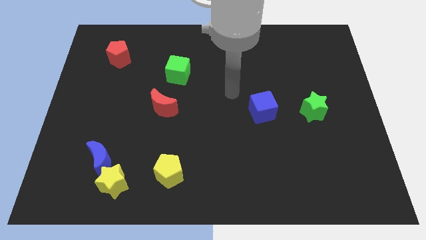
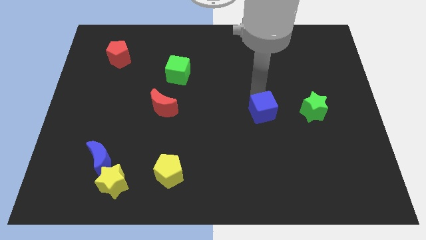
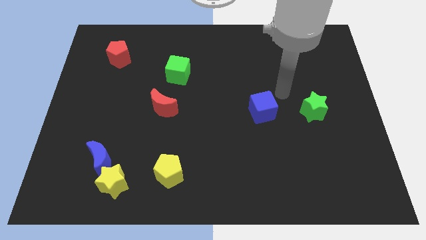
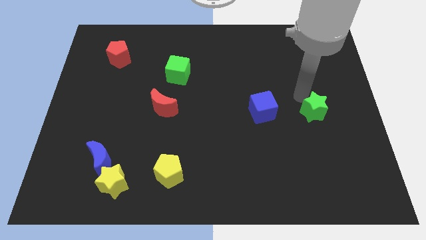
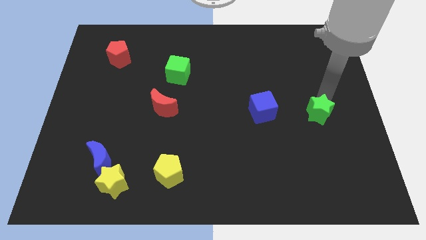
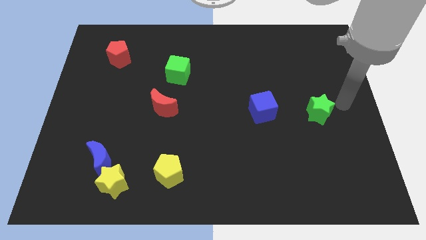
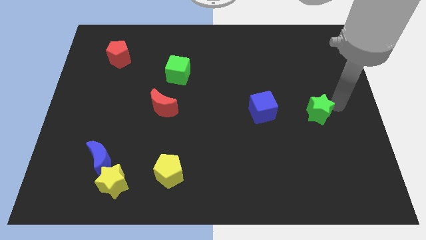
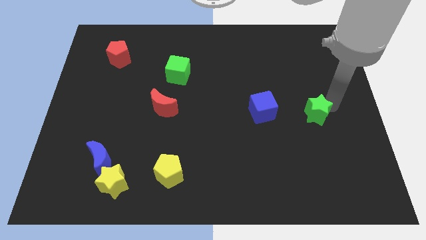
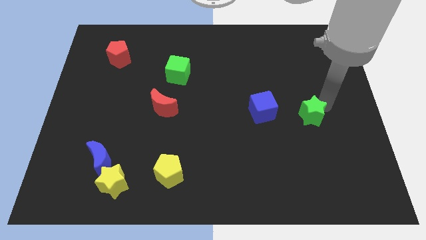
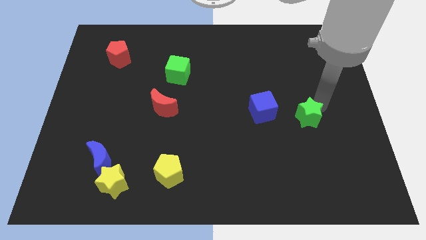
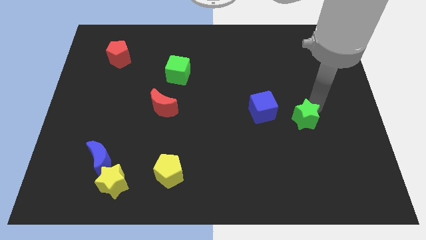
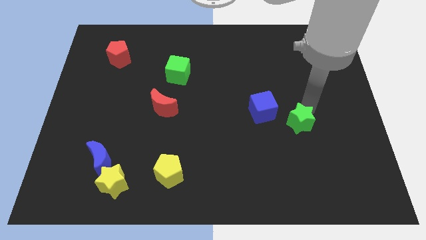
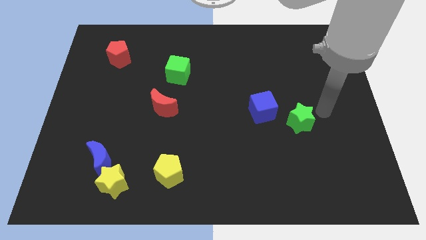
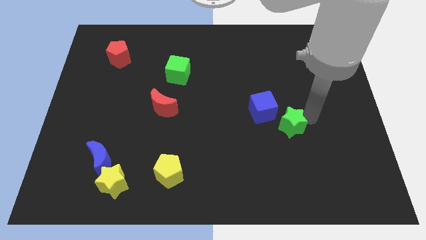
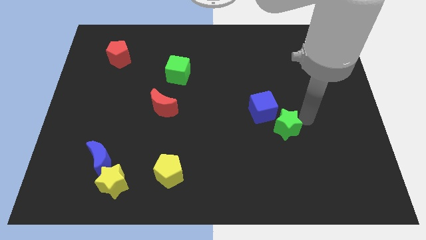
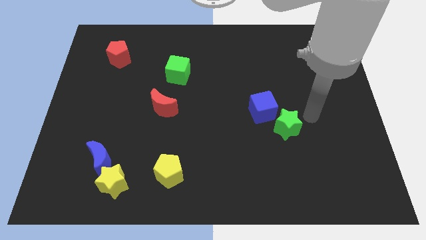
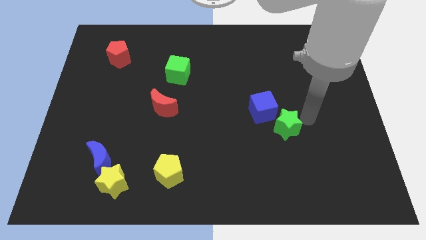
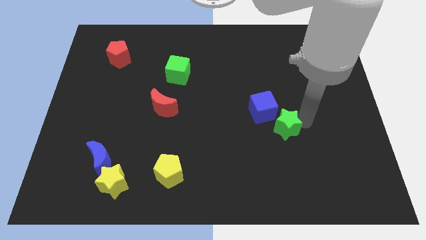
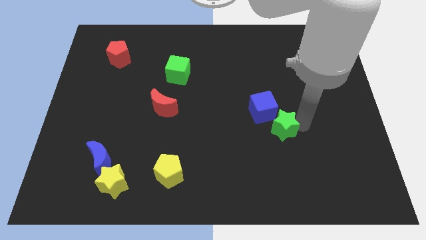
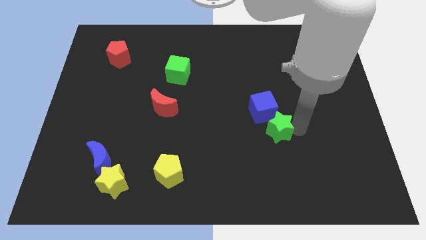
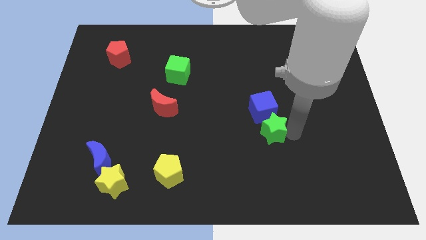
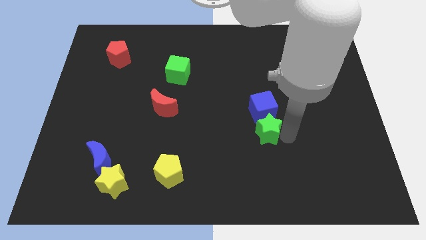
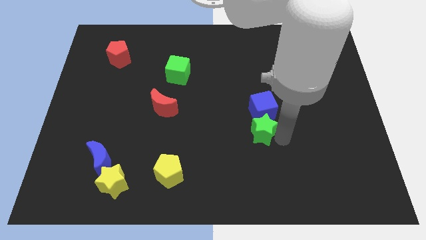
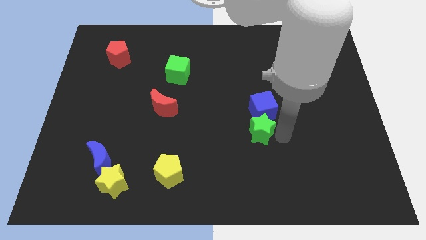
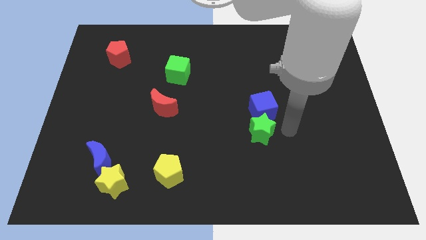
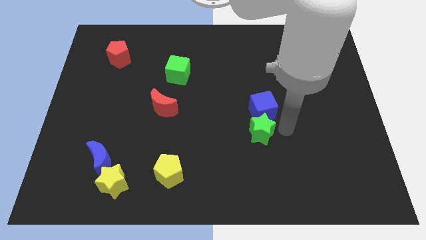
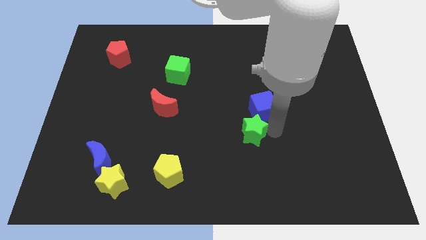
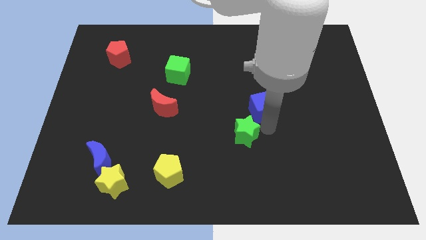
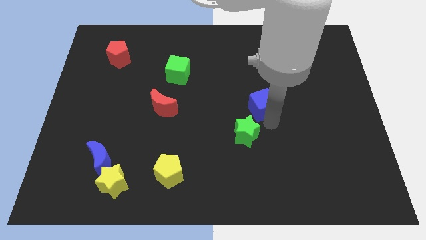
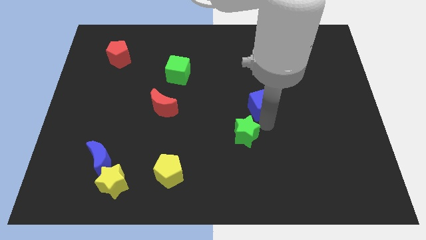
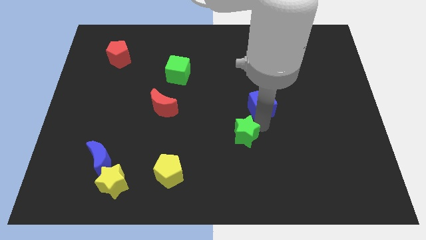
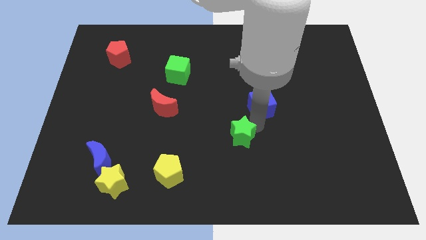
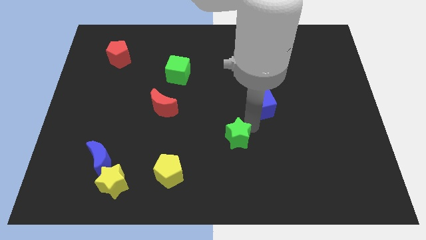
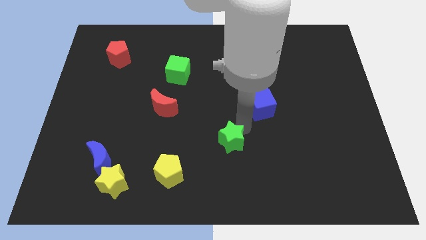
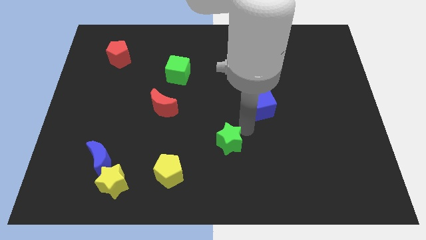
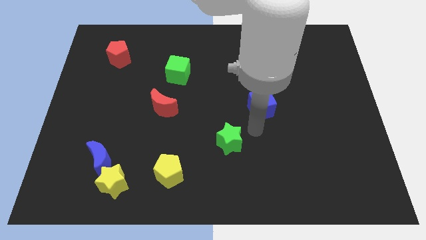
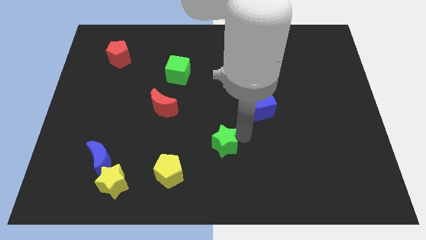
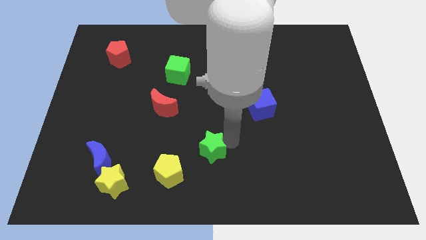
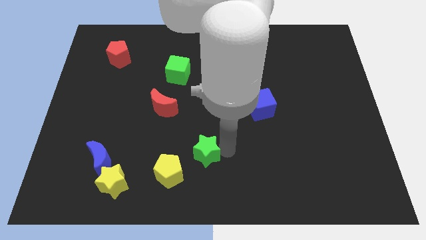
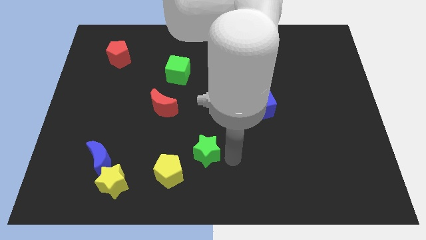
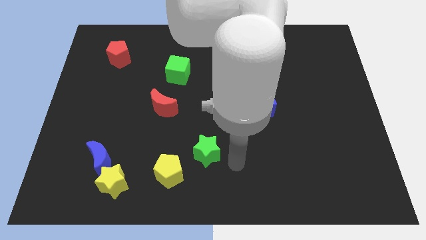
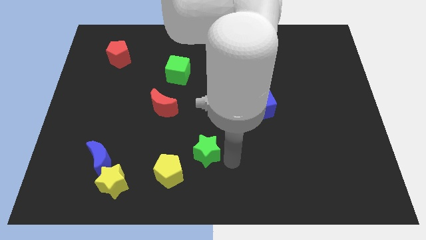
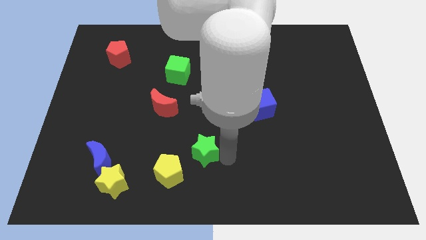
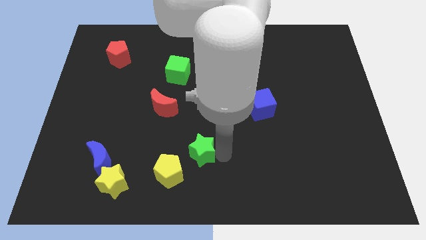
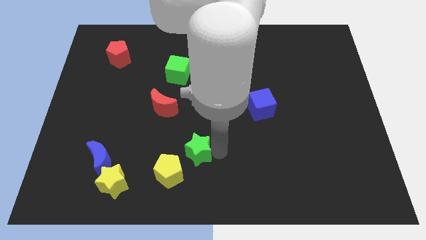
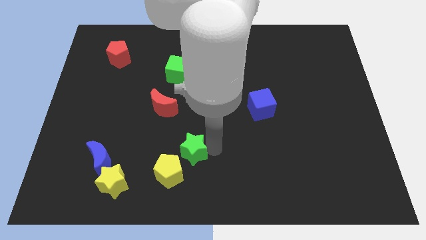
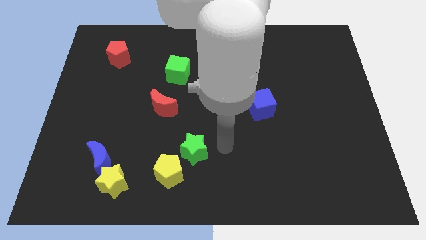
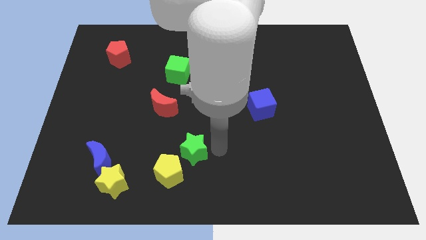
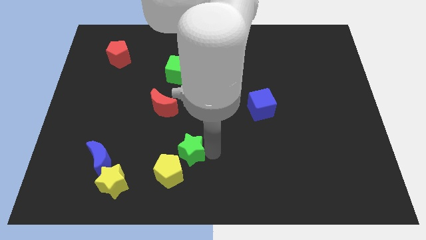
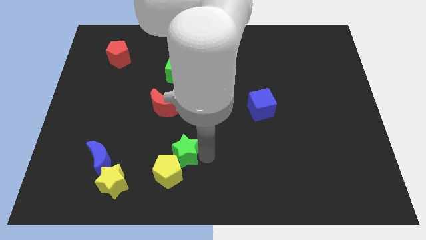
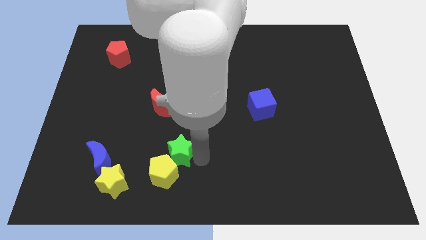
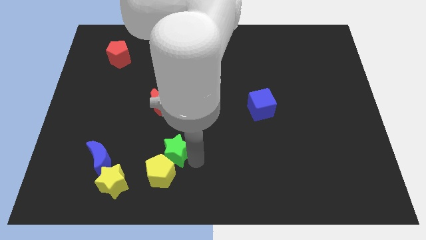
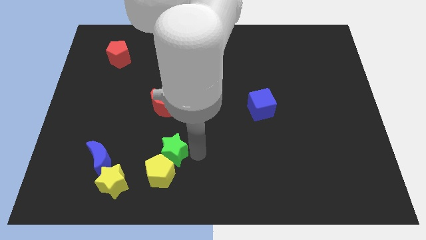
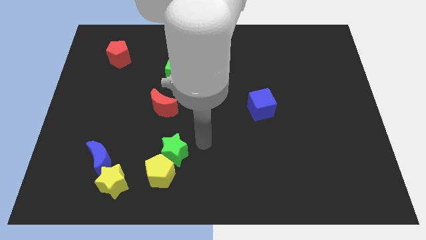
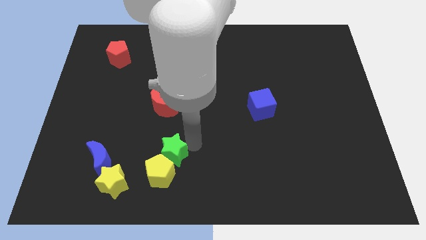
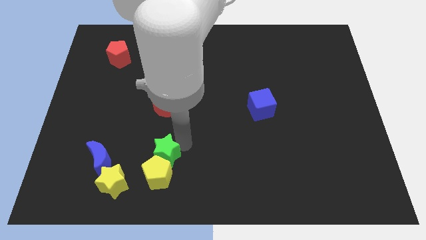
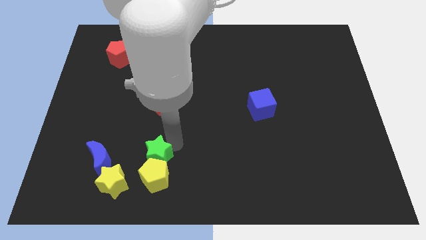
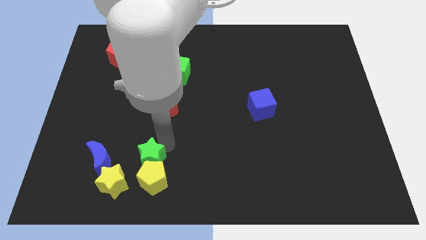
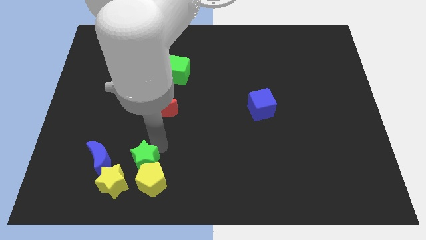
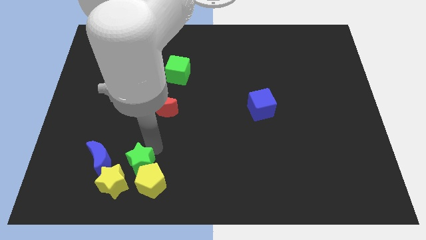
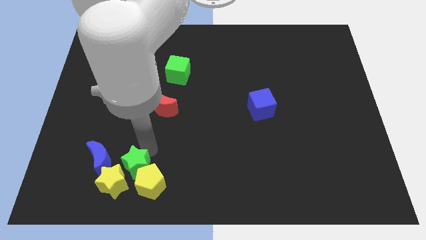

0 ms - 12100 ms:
slide the green star towards the yellow star

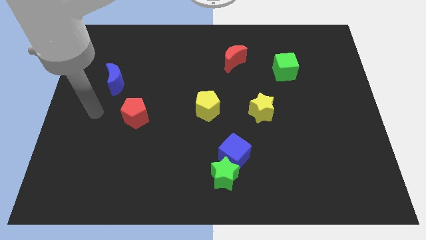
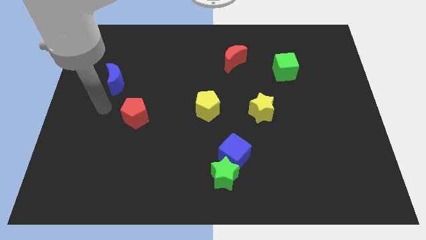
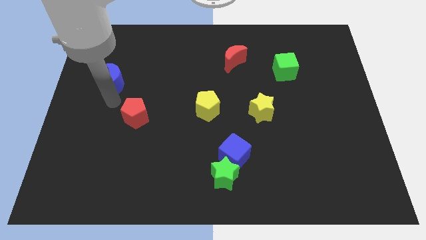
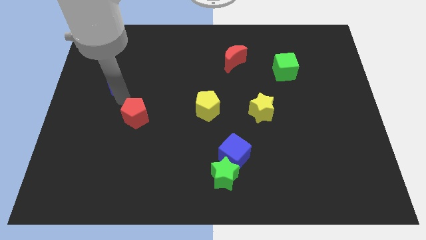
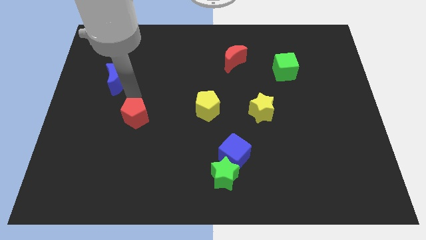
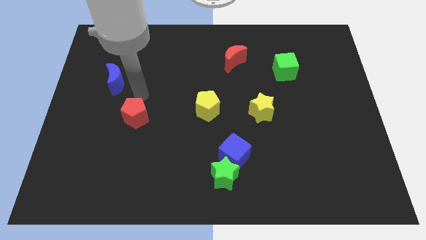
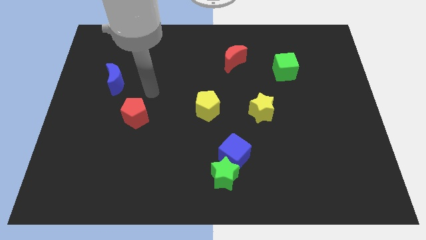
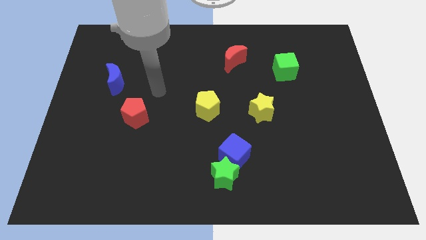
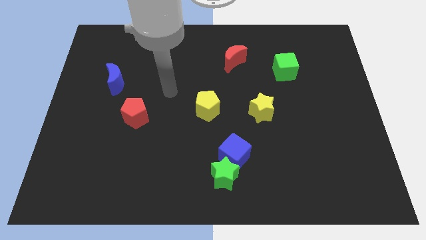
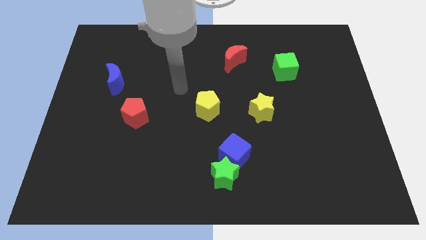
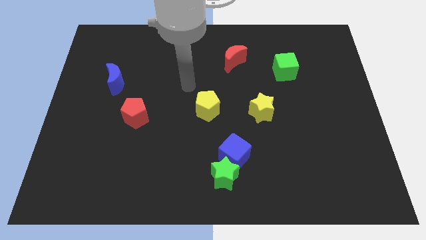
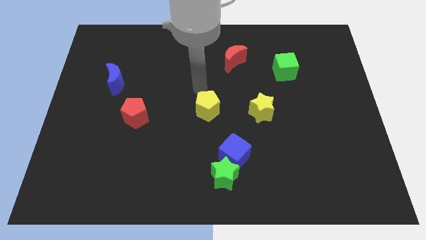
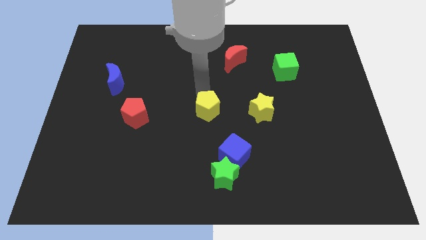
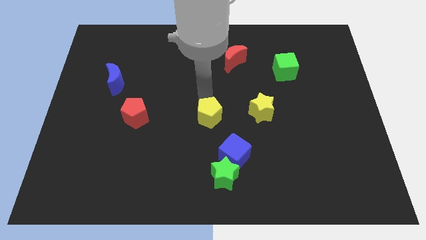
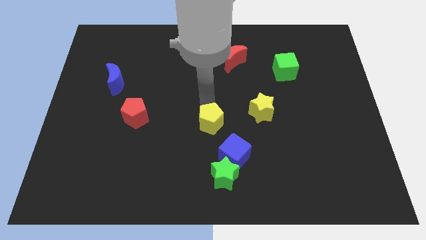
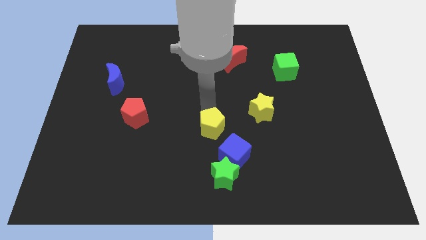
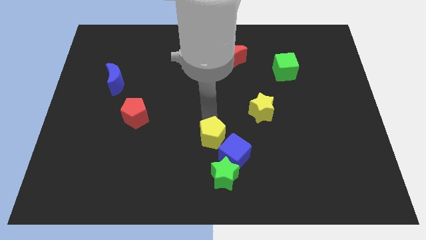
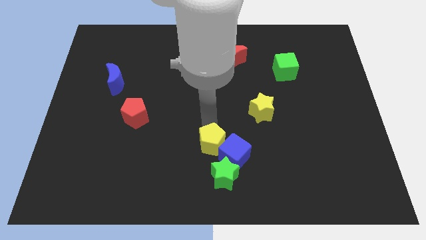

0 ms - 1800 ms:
move the yellow pentagon close to the blue cube
